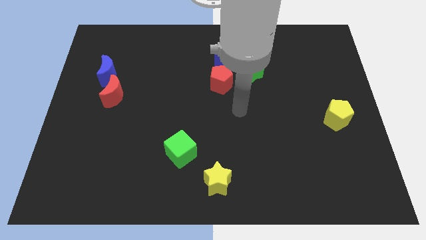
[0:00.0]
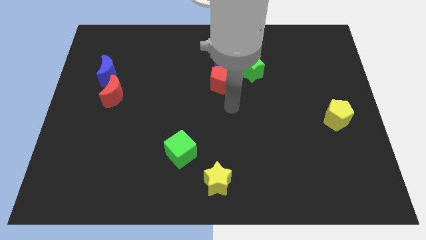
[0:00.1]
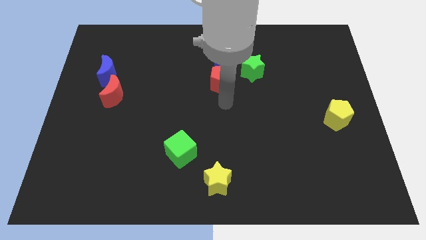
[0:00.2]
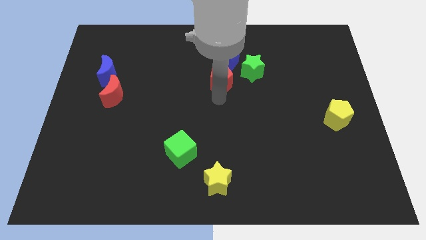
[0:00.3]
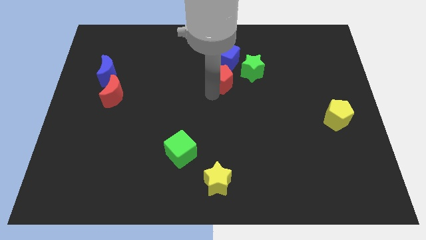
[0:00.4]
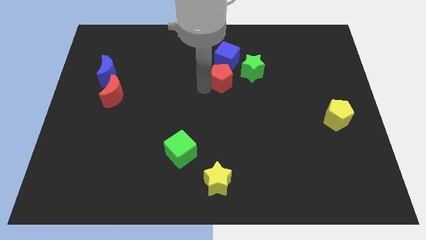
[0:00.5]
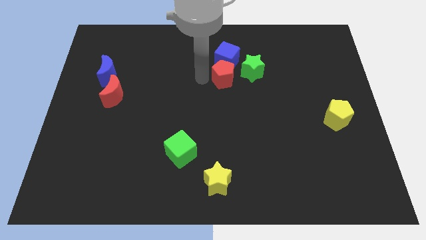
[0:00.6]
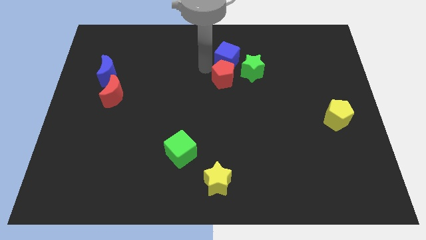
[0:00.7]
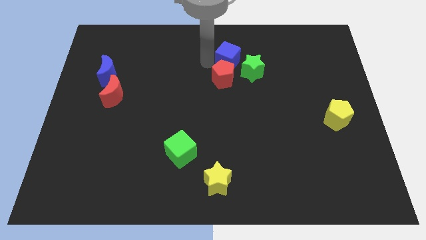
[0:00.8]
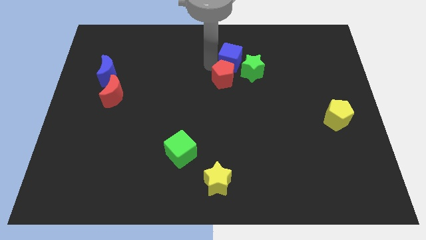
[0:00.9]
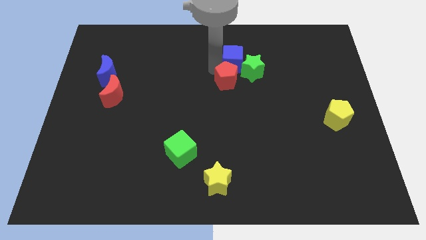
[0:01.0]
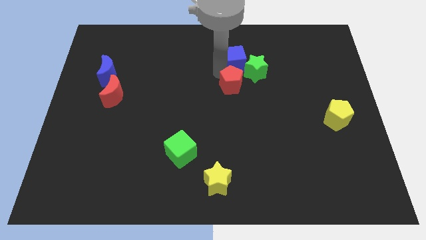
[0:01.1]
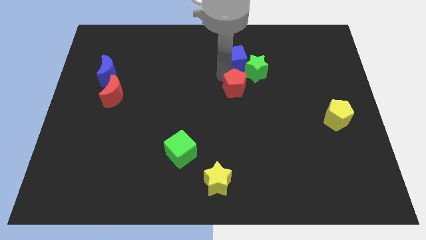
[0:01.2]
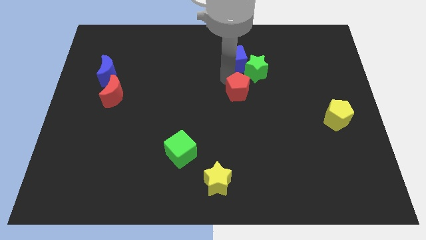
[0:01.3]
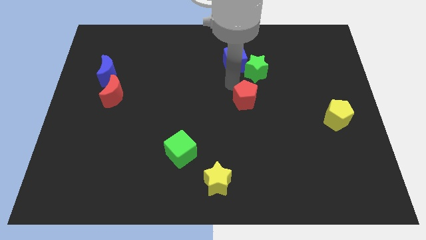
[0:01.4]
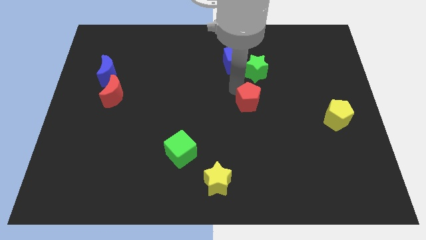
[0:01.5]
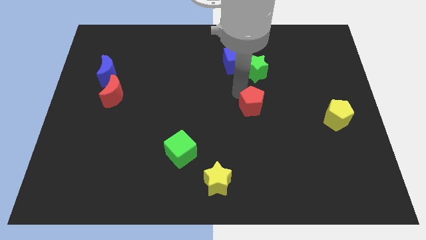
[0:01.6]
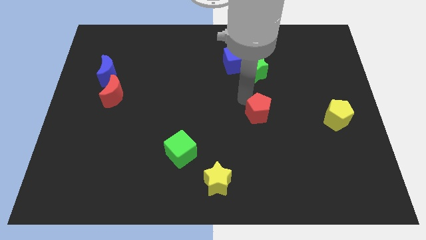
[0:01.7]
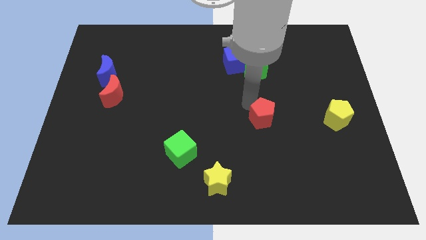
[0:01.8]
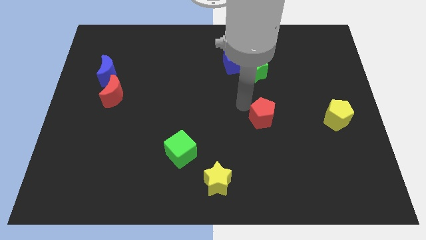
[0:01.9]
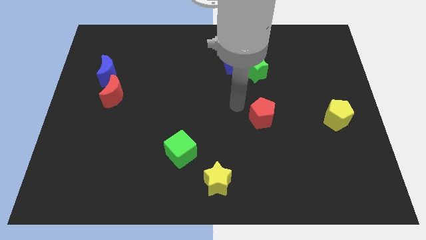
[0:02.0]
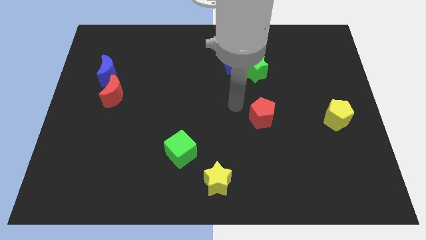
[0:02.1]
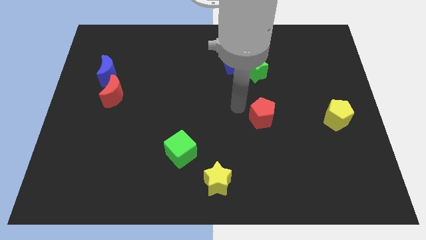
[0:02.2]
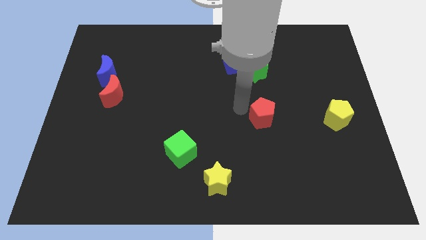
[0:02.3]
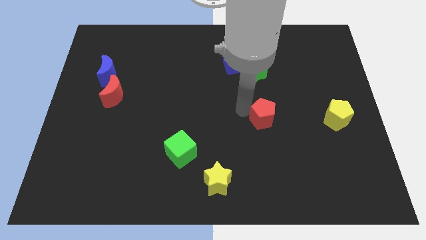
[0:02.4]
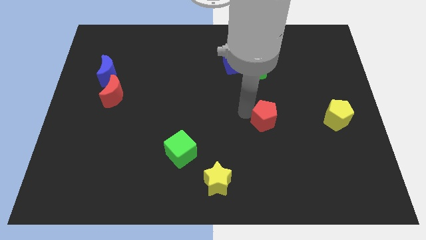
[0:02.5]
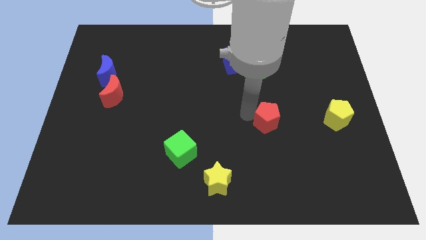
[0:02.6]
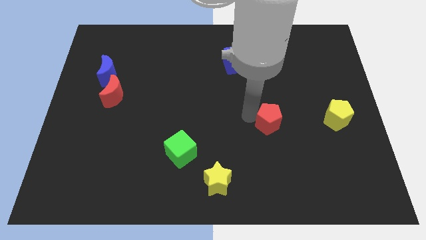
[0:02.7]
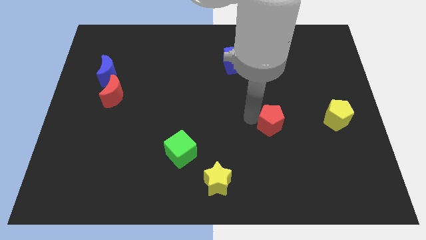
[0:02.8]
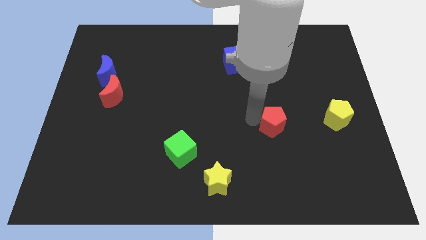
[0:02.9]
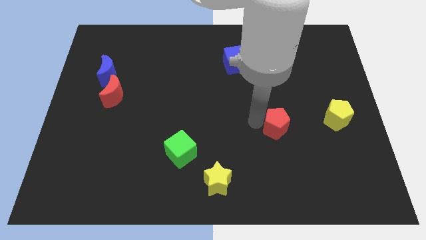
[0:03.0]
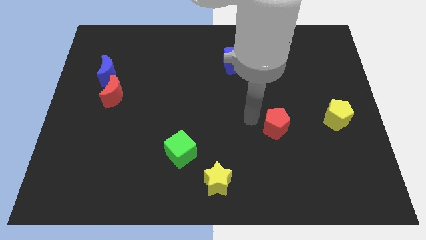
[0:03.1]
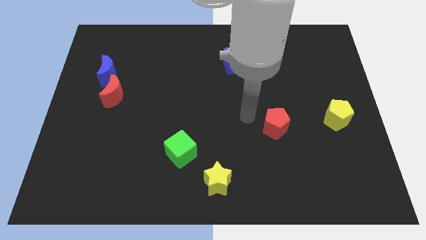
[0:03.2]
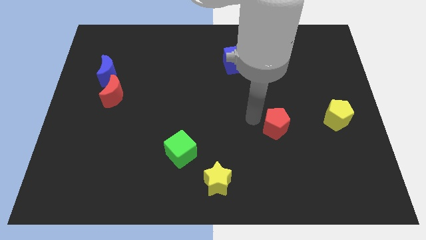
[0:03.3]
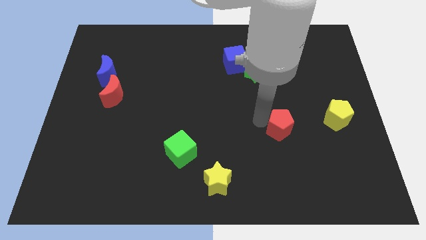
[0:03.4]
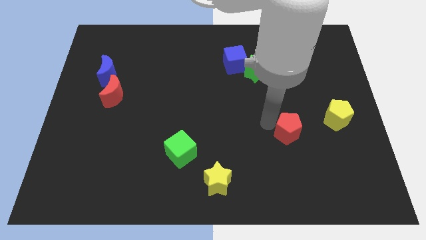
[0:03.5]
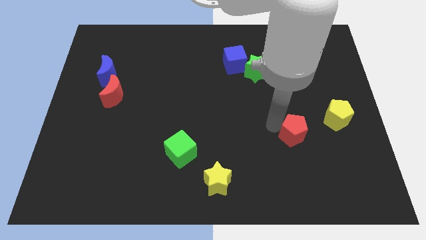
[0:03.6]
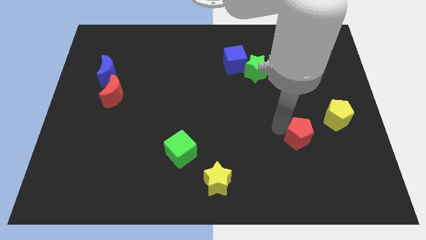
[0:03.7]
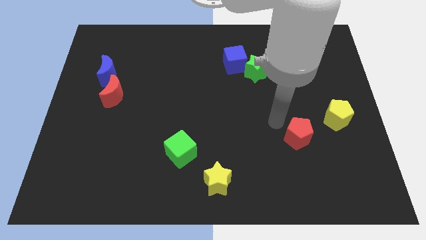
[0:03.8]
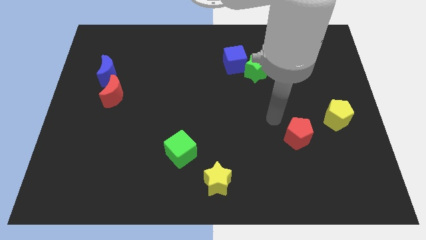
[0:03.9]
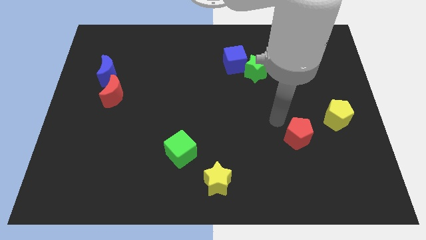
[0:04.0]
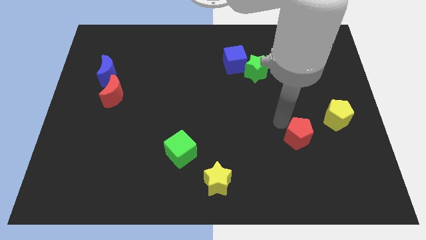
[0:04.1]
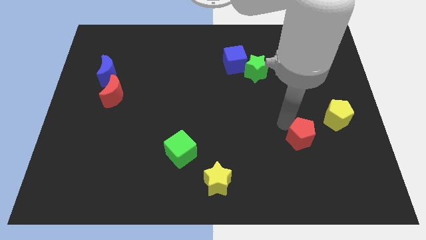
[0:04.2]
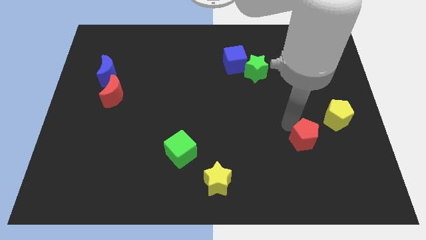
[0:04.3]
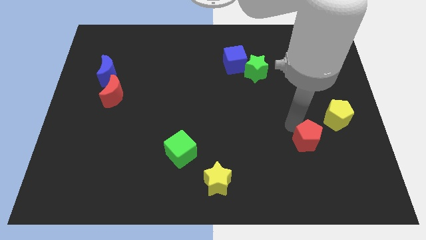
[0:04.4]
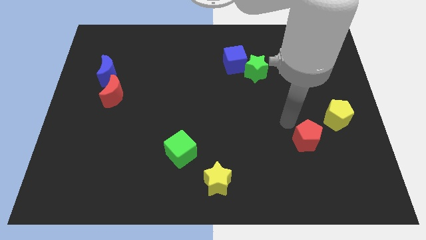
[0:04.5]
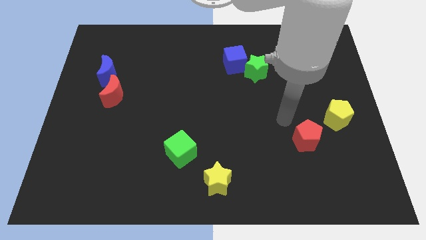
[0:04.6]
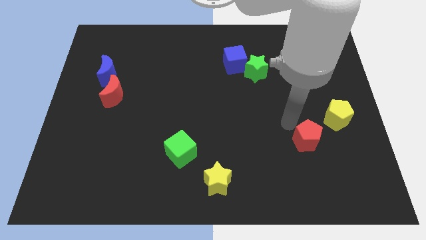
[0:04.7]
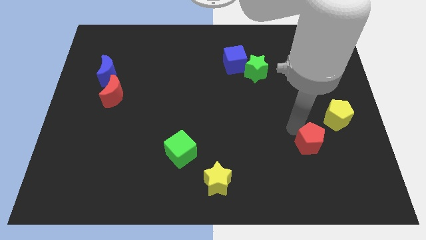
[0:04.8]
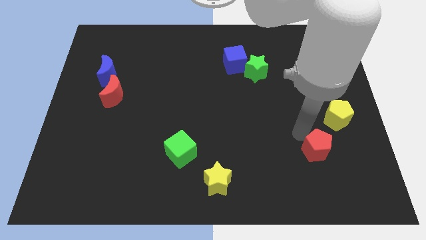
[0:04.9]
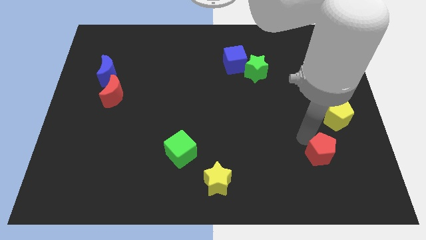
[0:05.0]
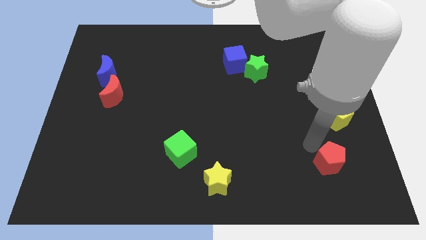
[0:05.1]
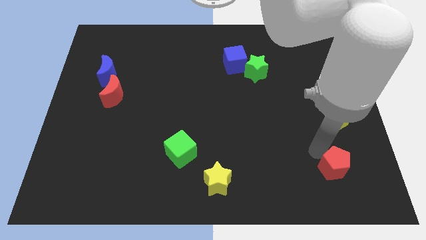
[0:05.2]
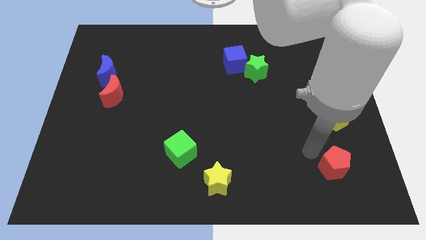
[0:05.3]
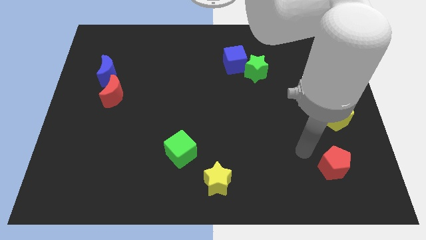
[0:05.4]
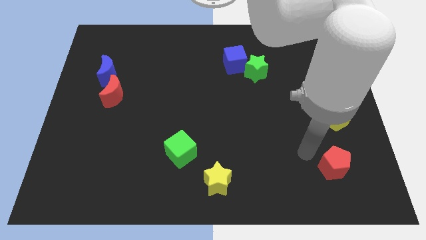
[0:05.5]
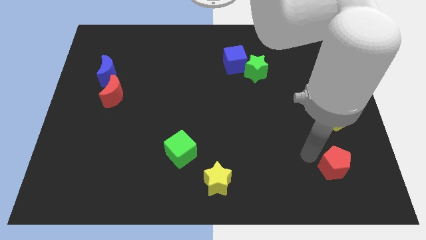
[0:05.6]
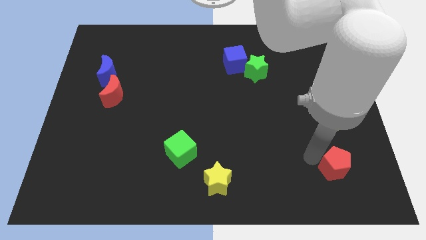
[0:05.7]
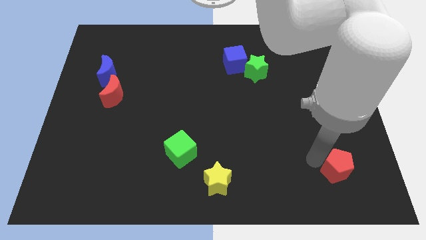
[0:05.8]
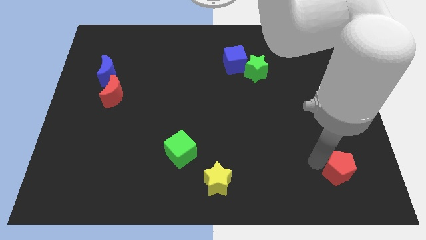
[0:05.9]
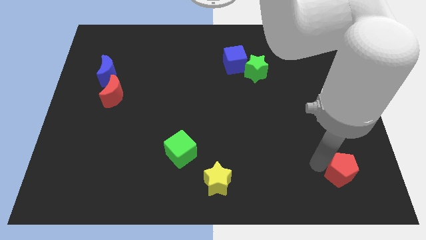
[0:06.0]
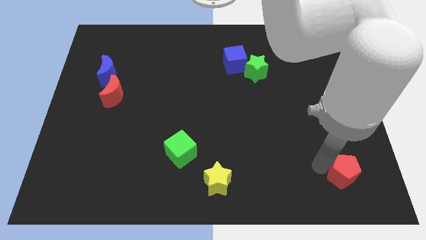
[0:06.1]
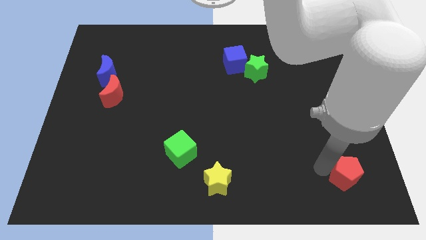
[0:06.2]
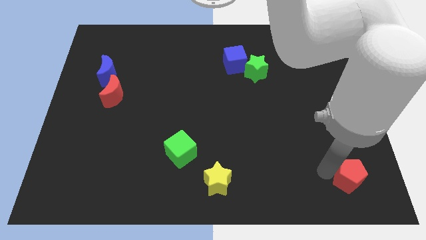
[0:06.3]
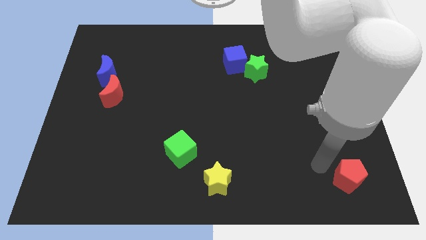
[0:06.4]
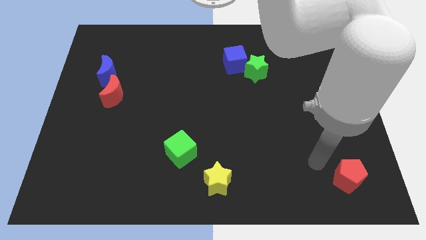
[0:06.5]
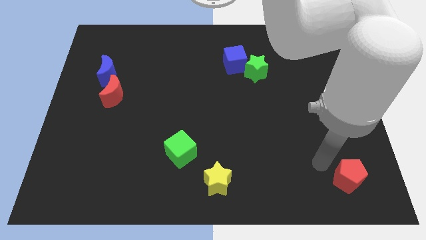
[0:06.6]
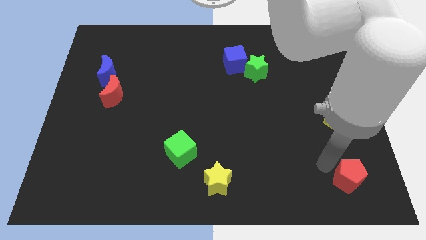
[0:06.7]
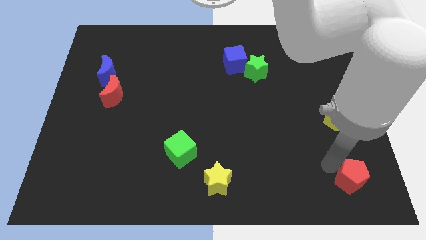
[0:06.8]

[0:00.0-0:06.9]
push the red pentagon to the bottom right corner
